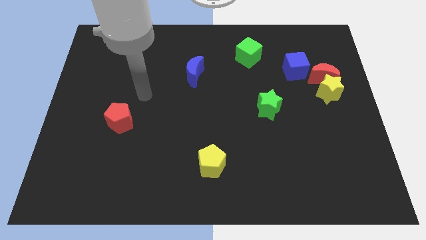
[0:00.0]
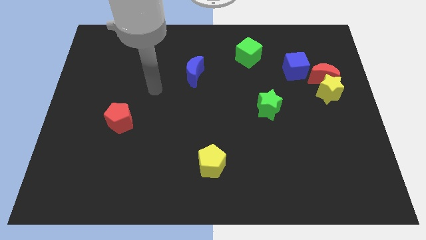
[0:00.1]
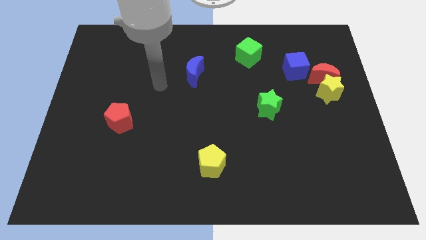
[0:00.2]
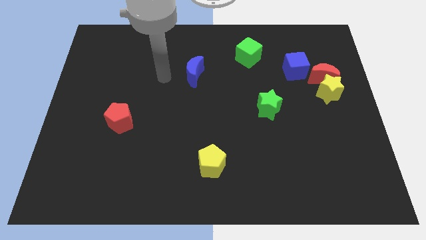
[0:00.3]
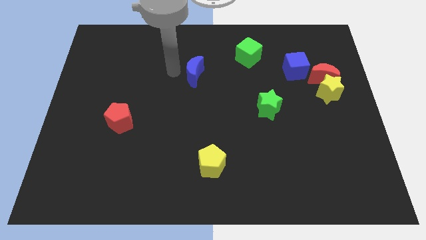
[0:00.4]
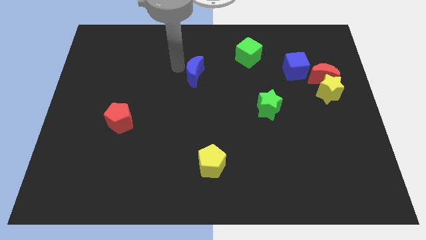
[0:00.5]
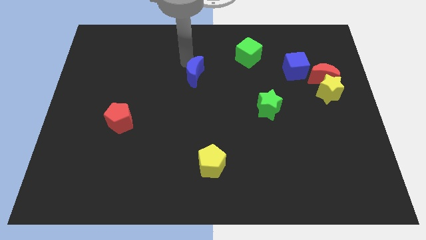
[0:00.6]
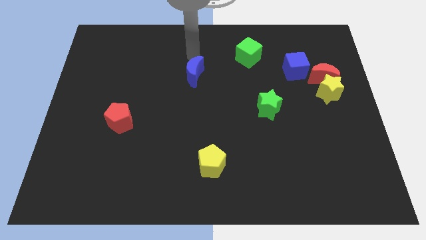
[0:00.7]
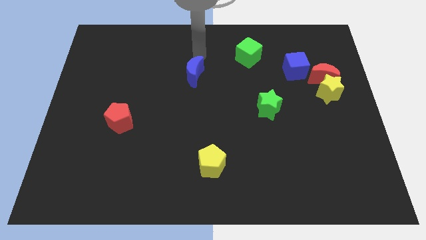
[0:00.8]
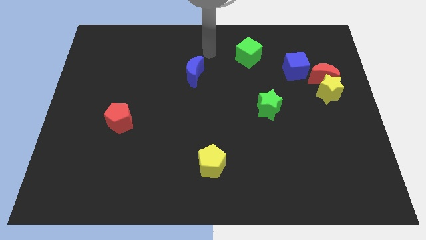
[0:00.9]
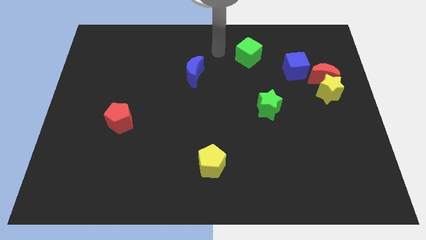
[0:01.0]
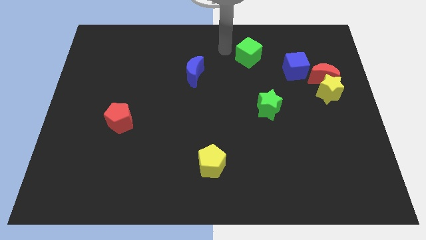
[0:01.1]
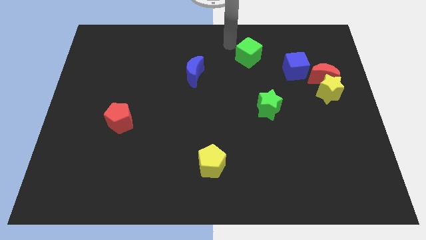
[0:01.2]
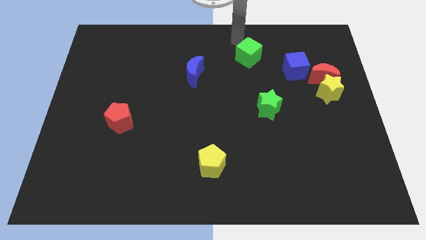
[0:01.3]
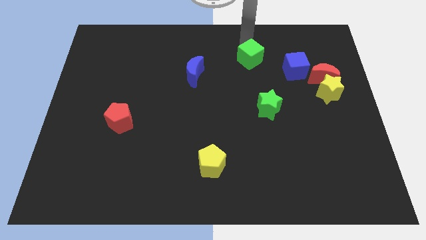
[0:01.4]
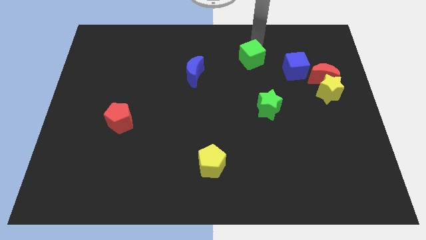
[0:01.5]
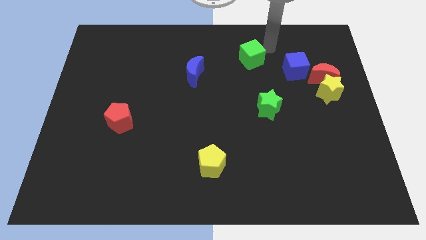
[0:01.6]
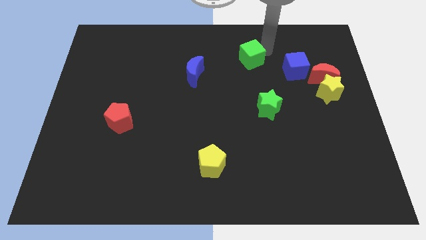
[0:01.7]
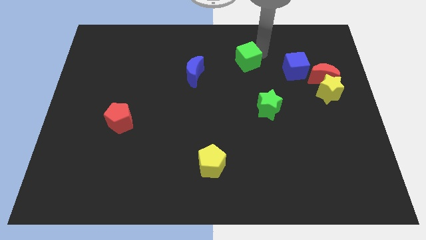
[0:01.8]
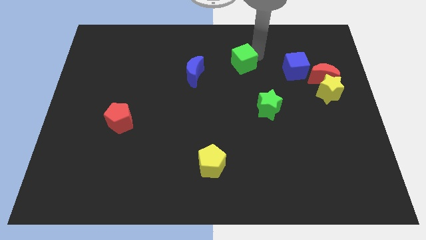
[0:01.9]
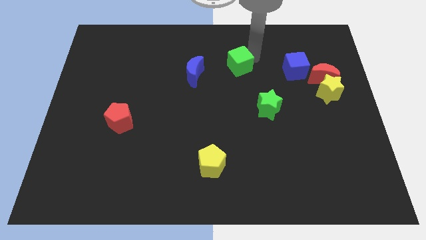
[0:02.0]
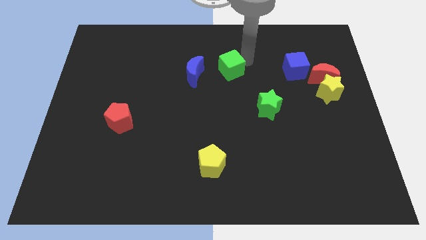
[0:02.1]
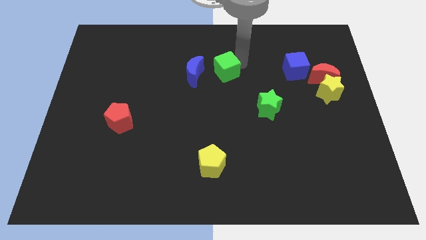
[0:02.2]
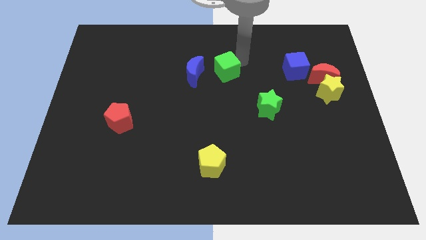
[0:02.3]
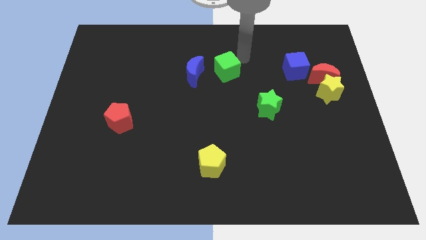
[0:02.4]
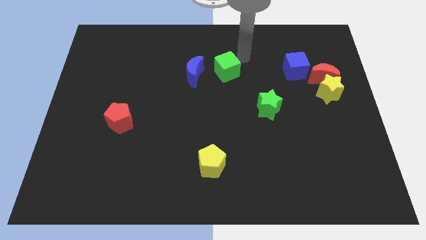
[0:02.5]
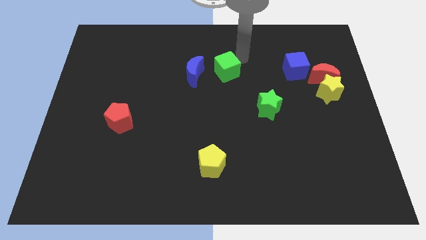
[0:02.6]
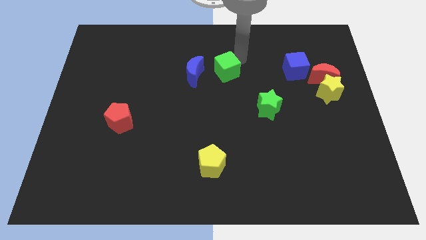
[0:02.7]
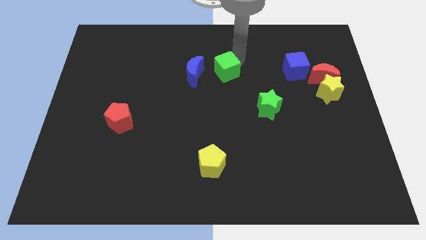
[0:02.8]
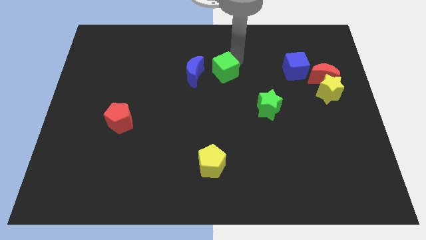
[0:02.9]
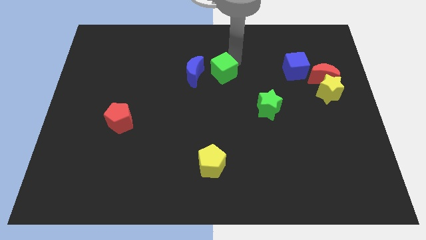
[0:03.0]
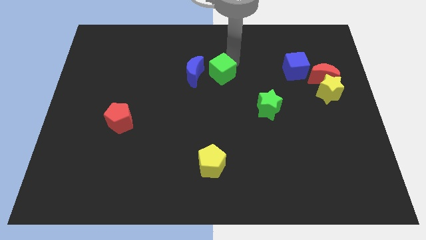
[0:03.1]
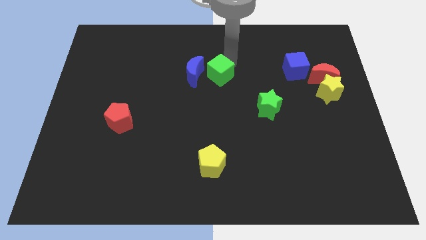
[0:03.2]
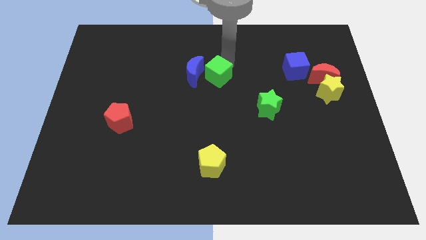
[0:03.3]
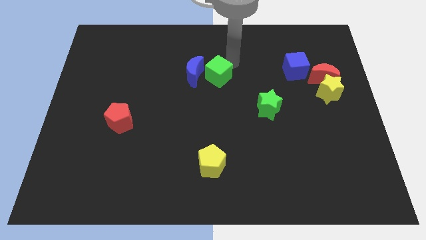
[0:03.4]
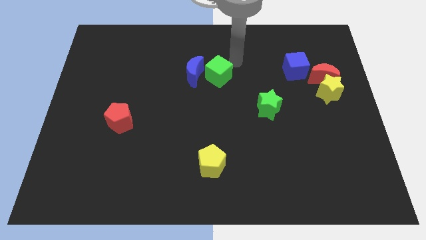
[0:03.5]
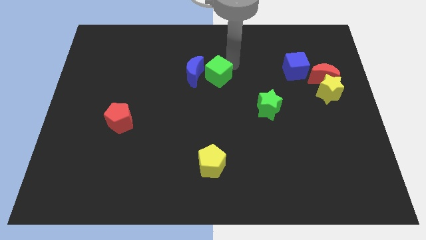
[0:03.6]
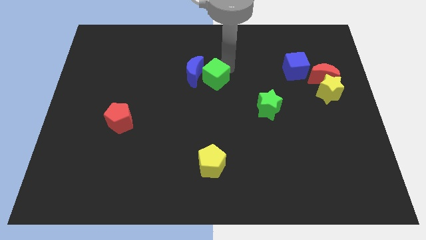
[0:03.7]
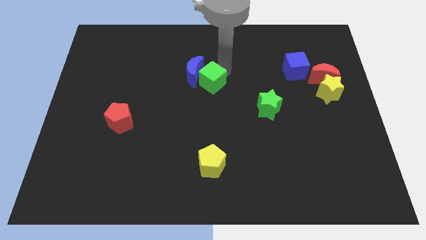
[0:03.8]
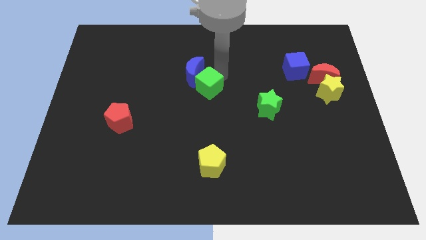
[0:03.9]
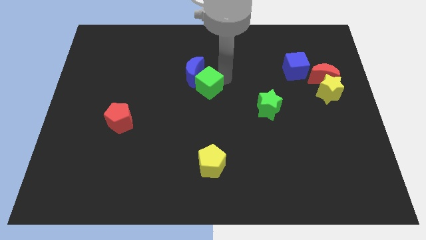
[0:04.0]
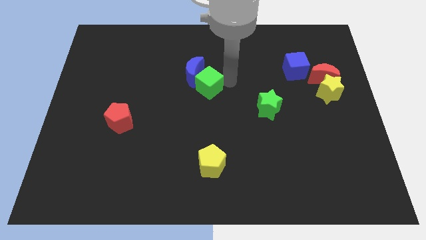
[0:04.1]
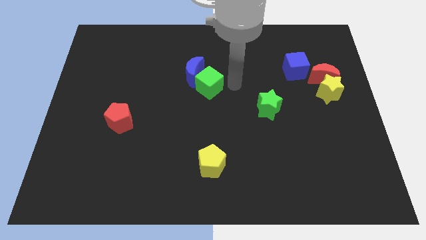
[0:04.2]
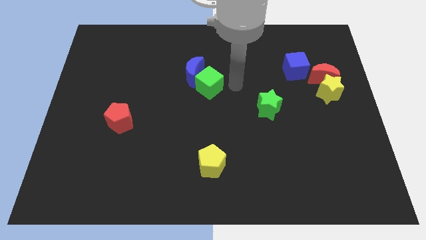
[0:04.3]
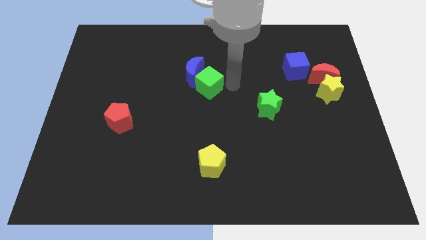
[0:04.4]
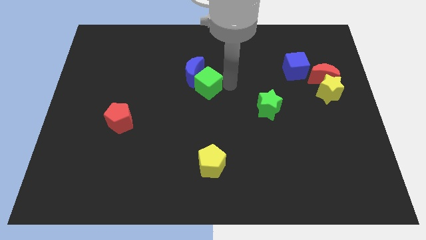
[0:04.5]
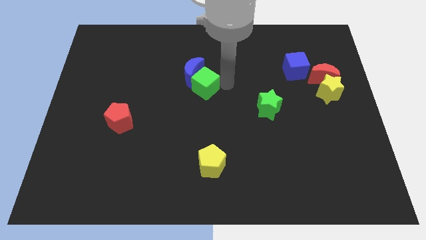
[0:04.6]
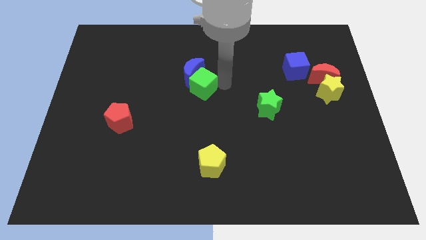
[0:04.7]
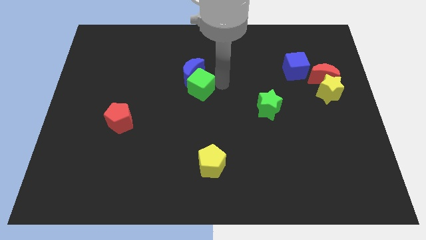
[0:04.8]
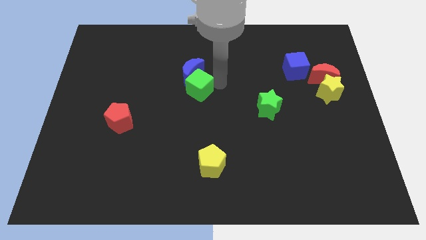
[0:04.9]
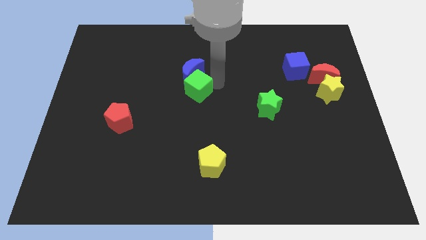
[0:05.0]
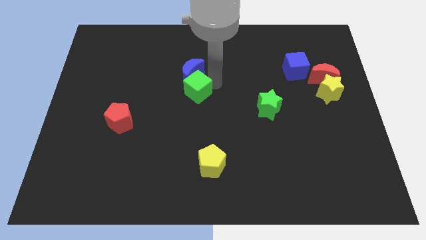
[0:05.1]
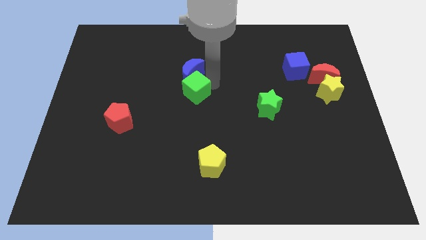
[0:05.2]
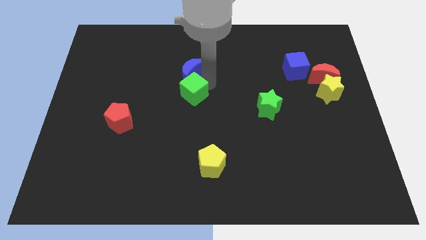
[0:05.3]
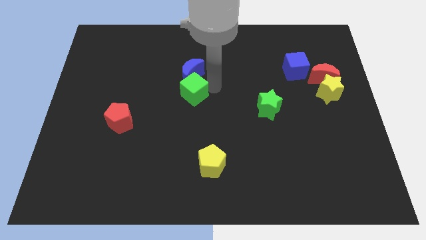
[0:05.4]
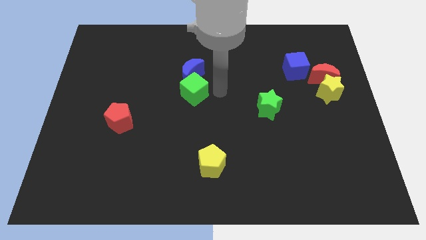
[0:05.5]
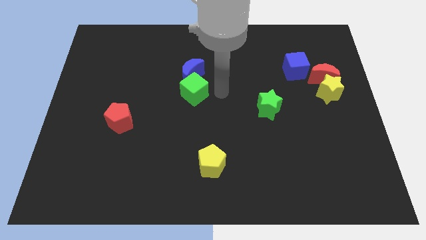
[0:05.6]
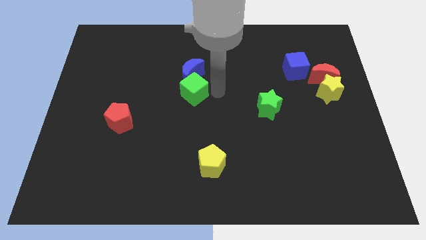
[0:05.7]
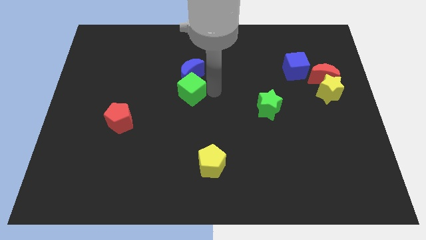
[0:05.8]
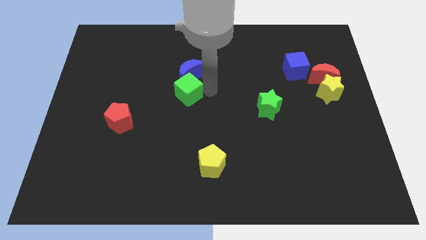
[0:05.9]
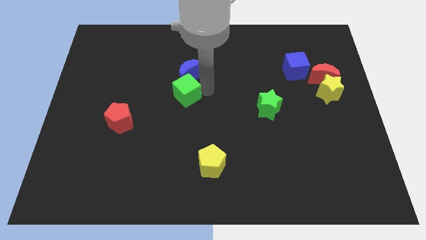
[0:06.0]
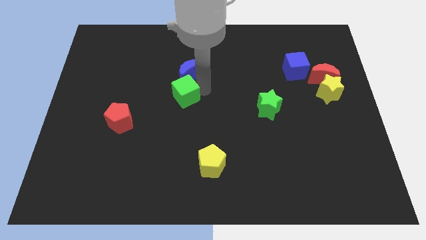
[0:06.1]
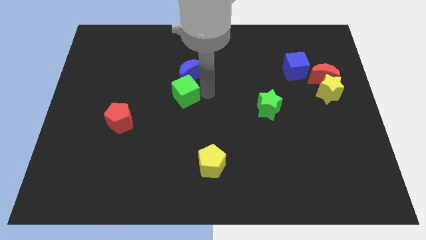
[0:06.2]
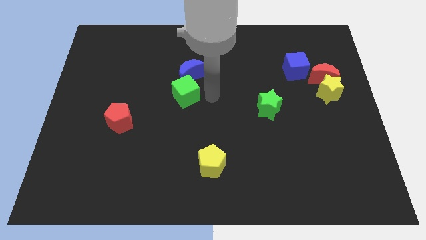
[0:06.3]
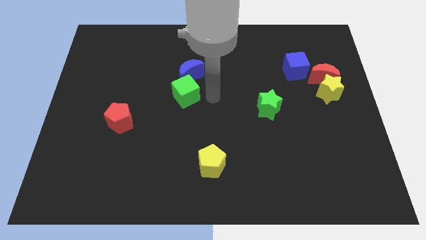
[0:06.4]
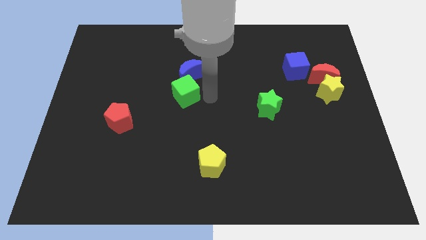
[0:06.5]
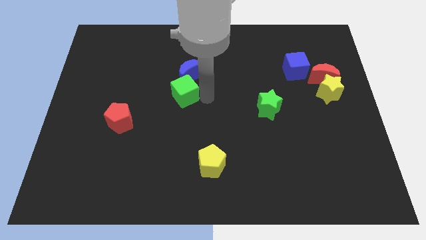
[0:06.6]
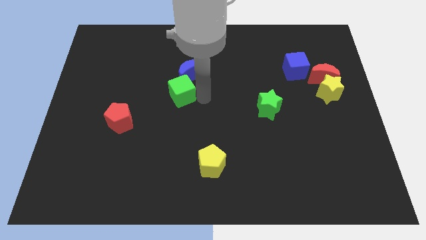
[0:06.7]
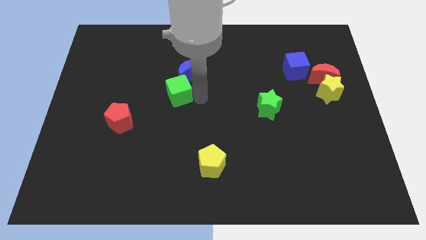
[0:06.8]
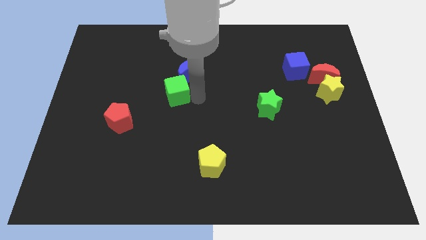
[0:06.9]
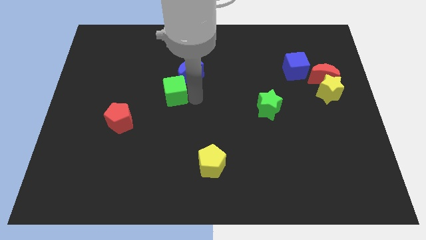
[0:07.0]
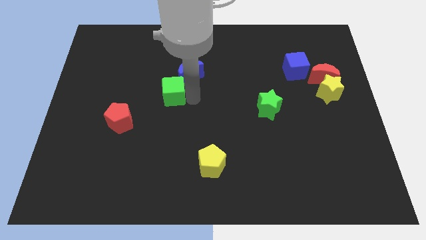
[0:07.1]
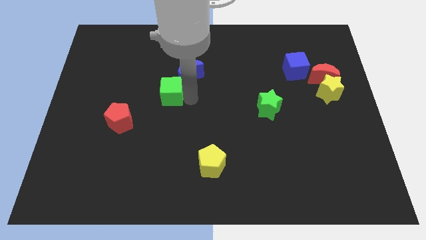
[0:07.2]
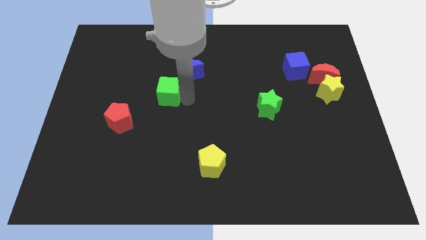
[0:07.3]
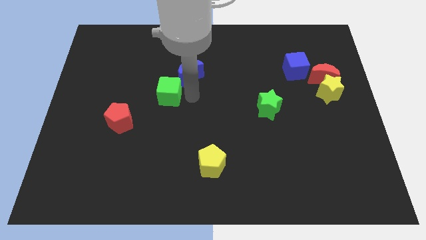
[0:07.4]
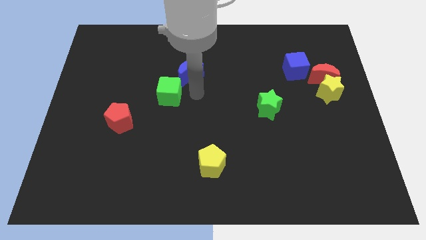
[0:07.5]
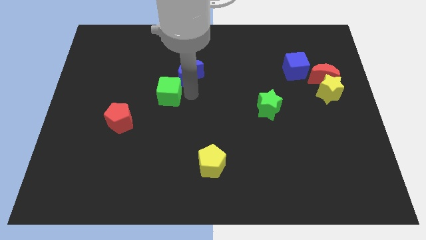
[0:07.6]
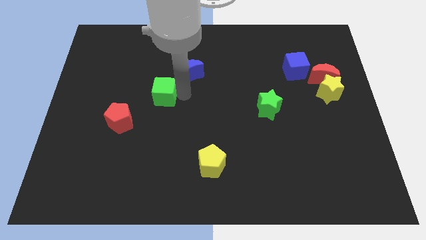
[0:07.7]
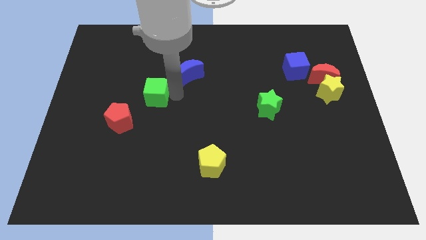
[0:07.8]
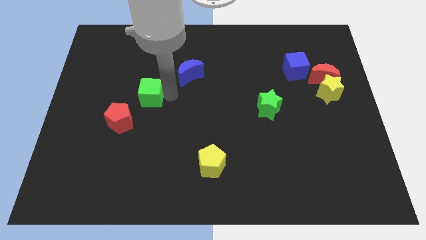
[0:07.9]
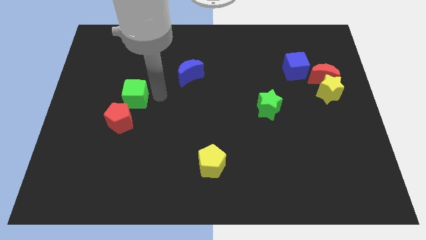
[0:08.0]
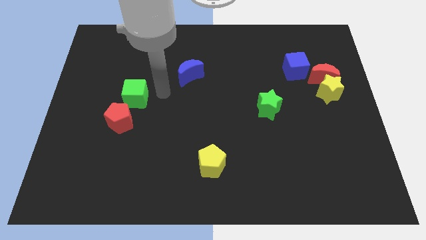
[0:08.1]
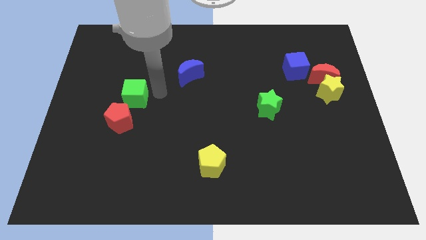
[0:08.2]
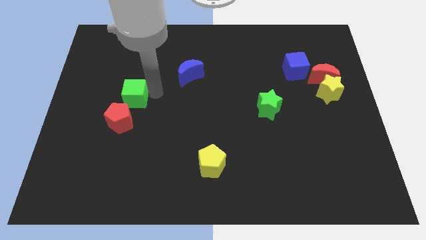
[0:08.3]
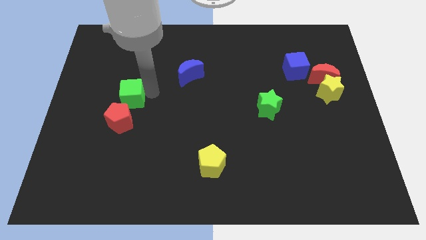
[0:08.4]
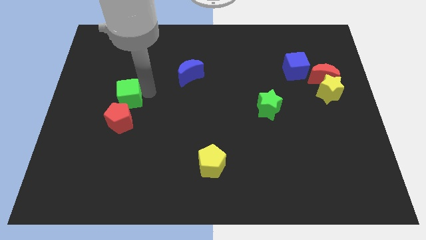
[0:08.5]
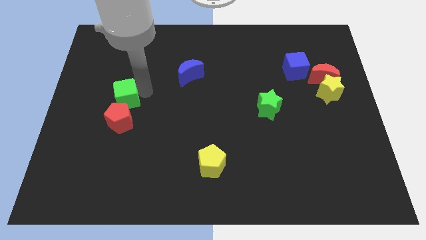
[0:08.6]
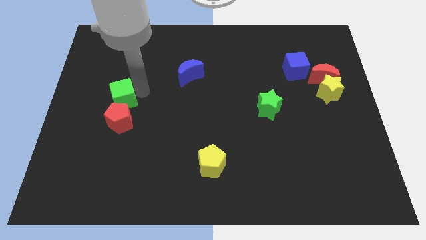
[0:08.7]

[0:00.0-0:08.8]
put the green cube to the top left of the red pentagon
